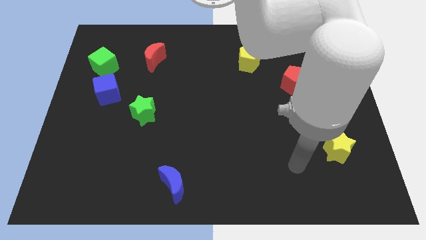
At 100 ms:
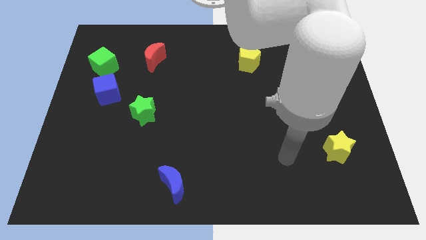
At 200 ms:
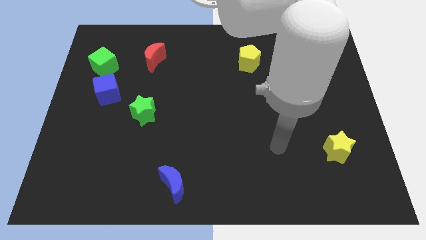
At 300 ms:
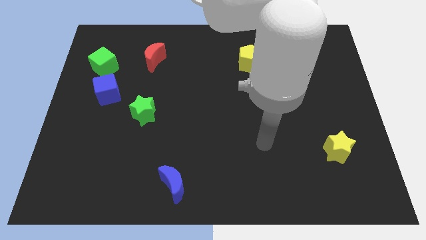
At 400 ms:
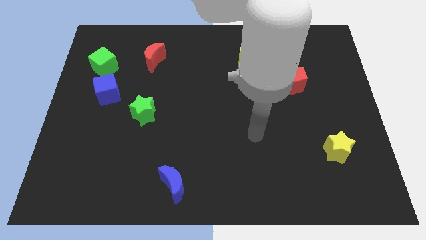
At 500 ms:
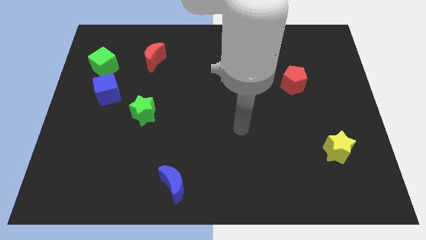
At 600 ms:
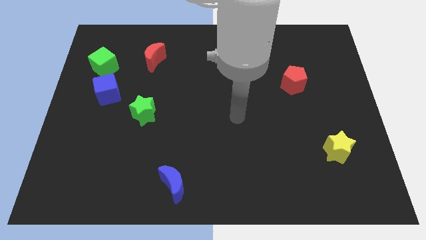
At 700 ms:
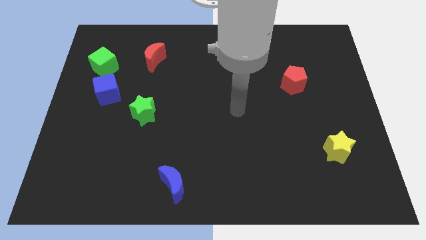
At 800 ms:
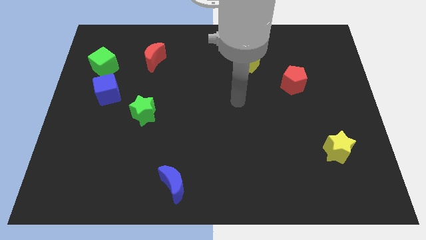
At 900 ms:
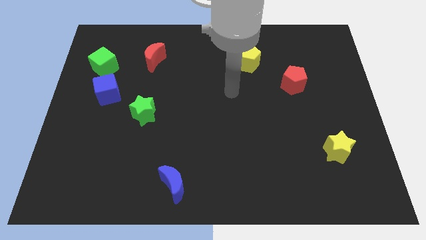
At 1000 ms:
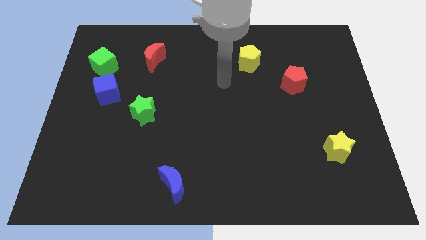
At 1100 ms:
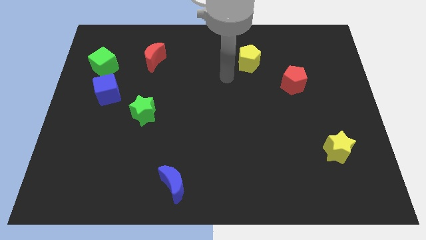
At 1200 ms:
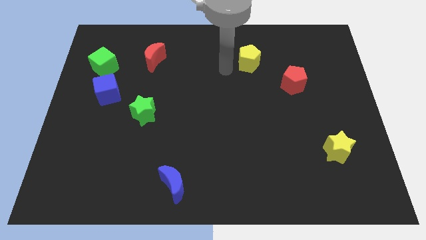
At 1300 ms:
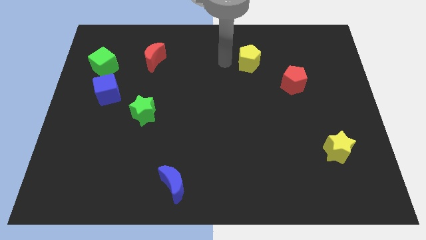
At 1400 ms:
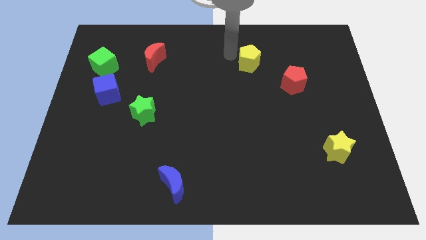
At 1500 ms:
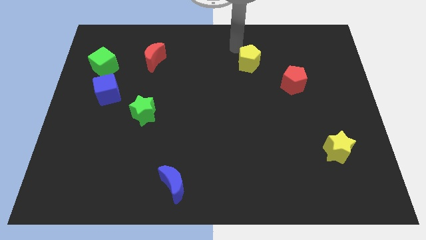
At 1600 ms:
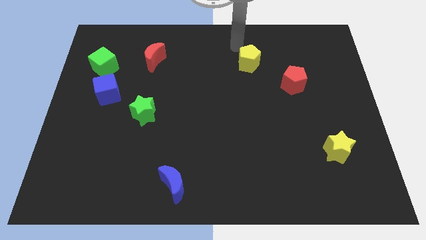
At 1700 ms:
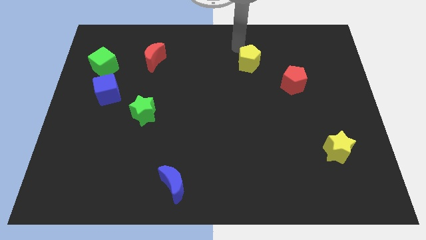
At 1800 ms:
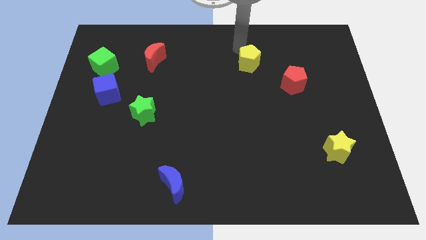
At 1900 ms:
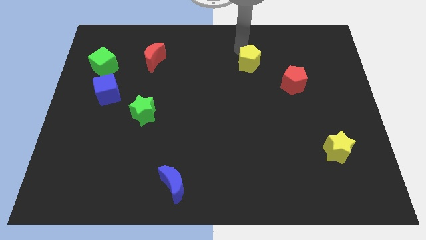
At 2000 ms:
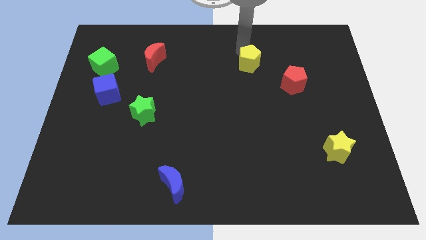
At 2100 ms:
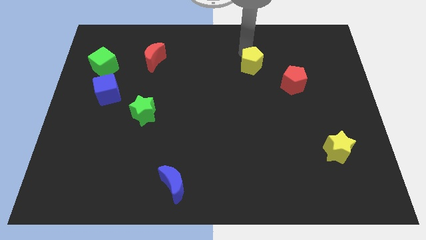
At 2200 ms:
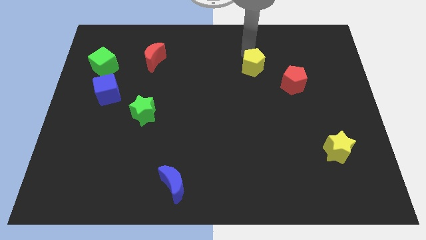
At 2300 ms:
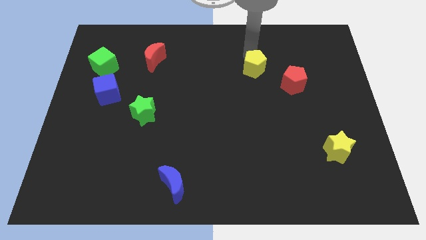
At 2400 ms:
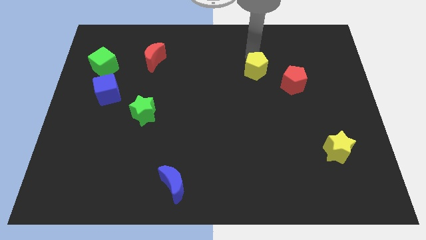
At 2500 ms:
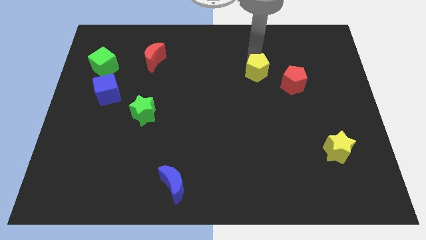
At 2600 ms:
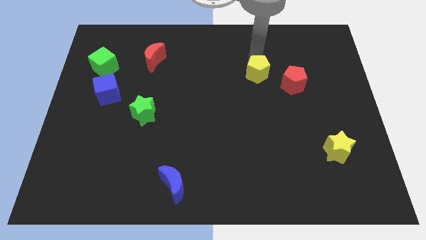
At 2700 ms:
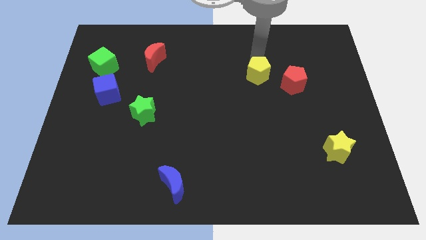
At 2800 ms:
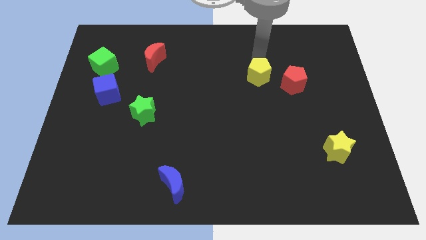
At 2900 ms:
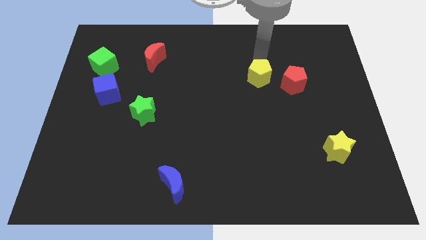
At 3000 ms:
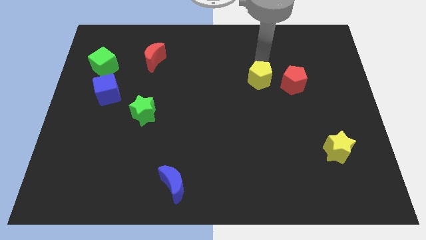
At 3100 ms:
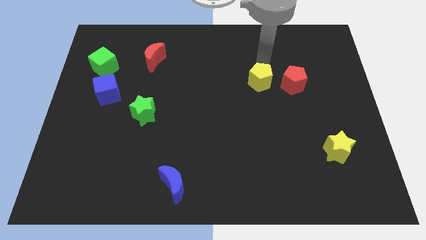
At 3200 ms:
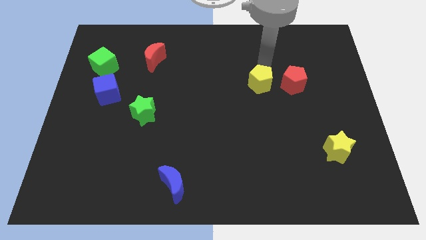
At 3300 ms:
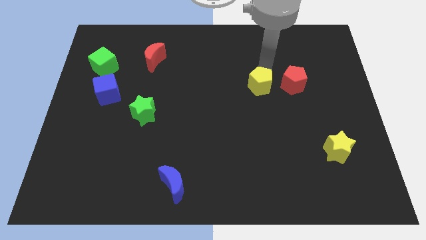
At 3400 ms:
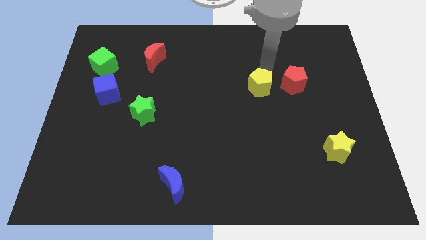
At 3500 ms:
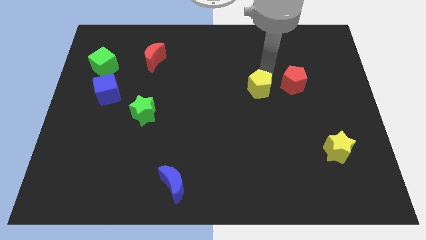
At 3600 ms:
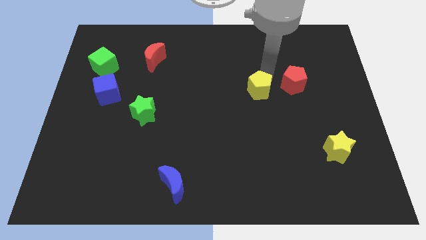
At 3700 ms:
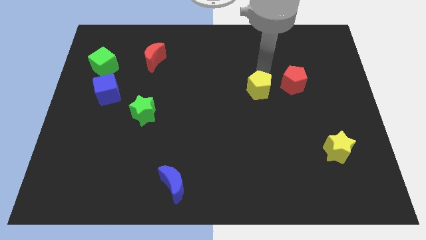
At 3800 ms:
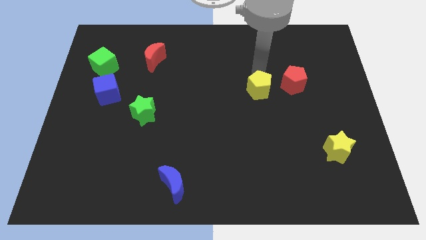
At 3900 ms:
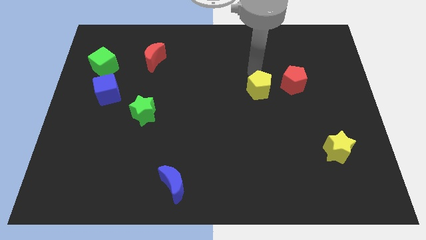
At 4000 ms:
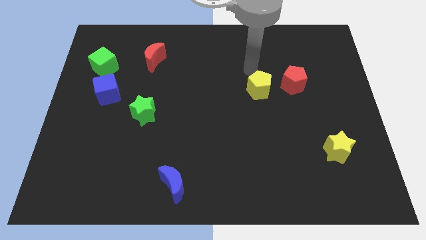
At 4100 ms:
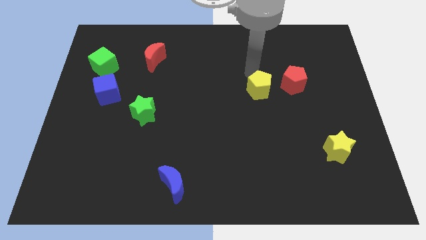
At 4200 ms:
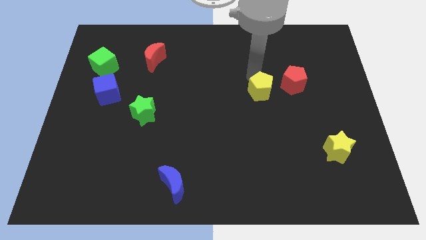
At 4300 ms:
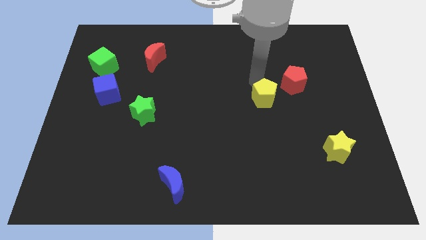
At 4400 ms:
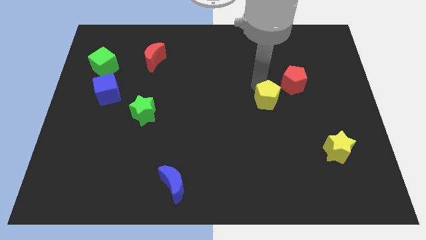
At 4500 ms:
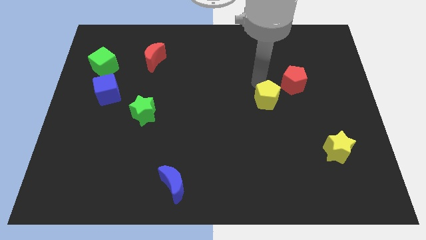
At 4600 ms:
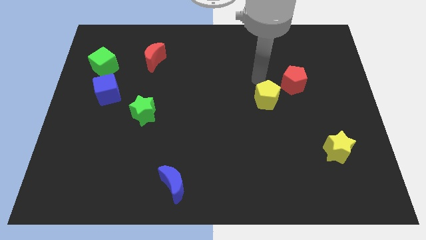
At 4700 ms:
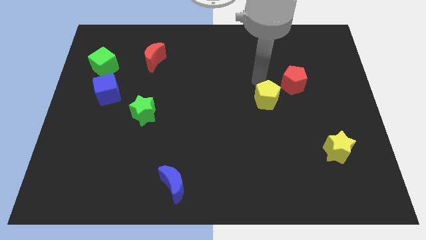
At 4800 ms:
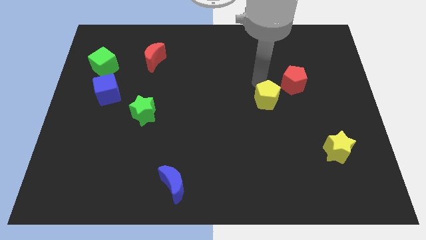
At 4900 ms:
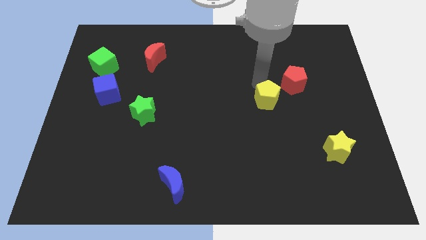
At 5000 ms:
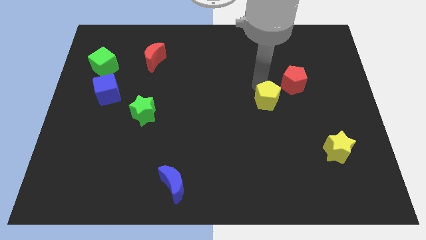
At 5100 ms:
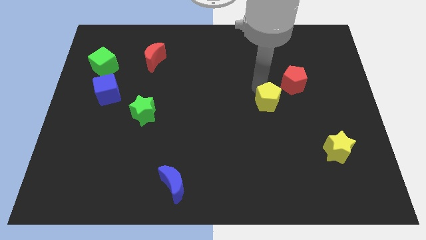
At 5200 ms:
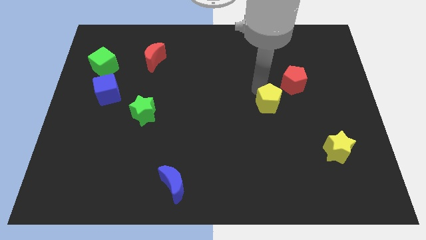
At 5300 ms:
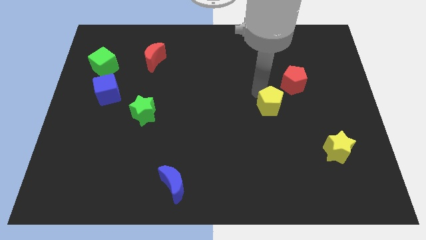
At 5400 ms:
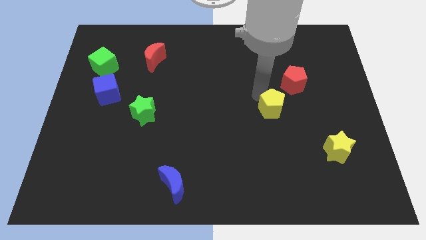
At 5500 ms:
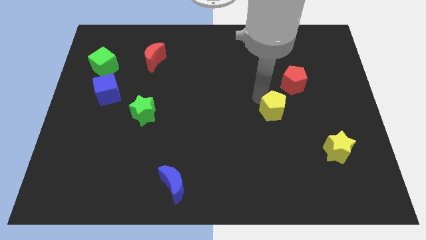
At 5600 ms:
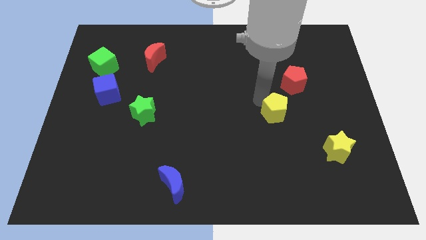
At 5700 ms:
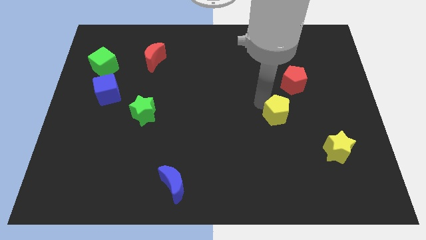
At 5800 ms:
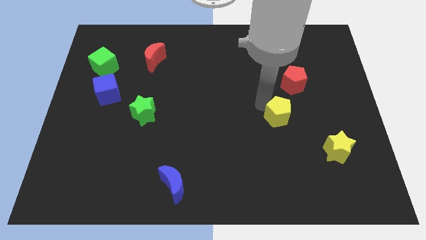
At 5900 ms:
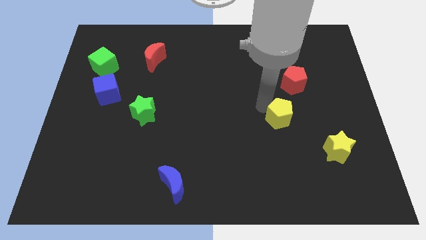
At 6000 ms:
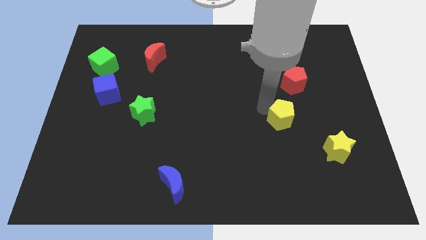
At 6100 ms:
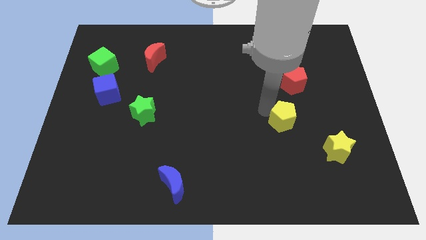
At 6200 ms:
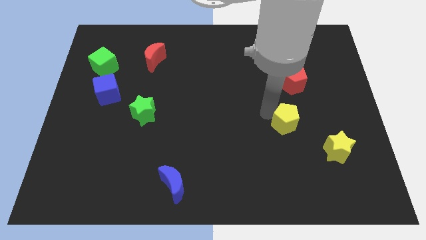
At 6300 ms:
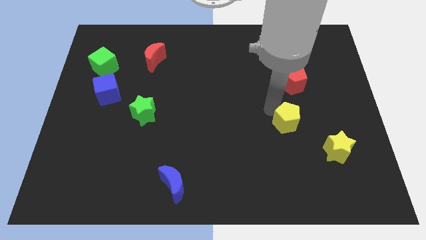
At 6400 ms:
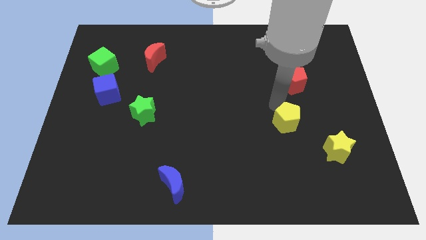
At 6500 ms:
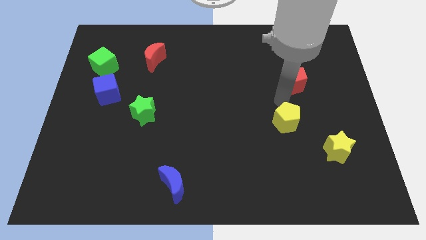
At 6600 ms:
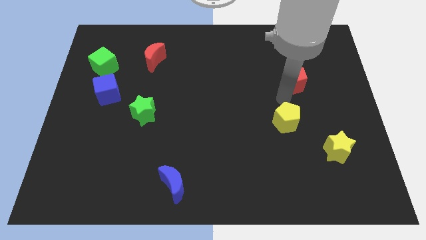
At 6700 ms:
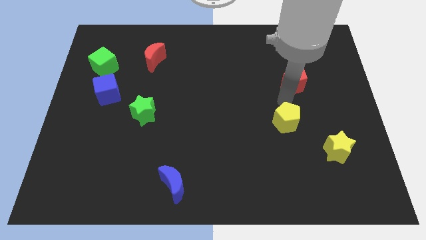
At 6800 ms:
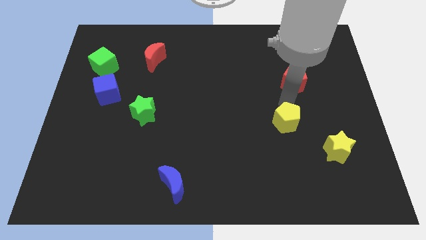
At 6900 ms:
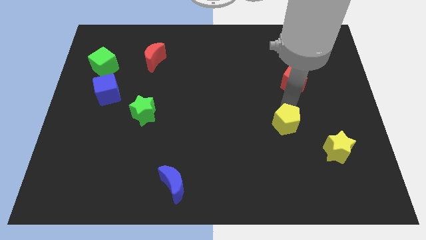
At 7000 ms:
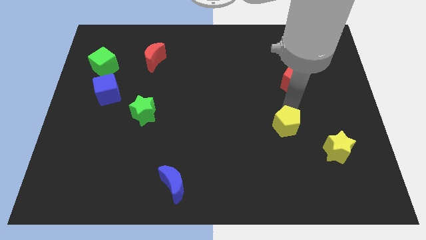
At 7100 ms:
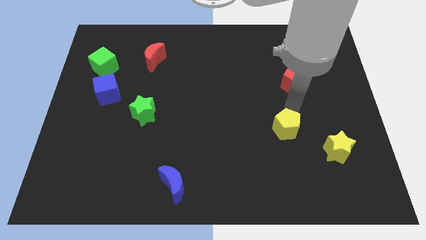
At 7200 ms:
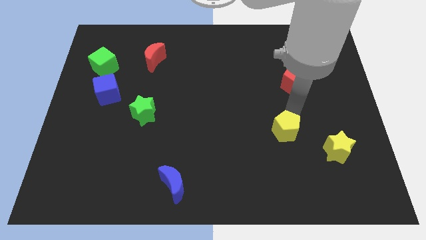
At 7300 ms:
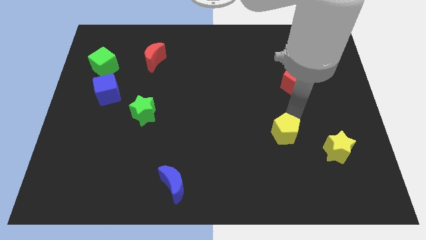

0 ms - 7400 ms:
put the yellow pentagon left of the yellow star
